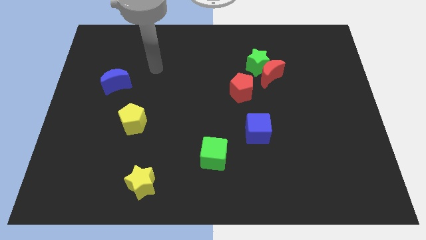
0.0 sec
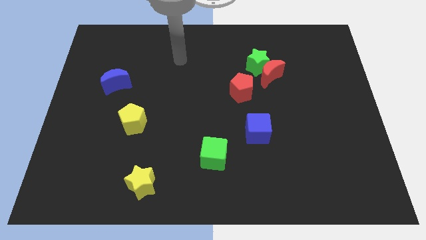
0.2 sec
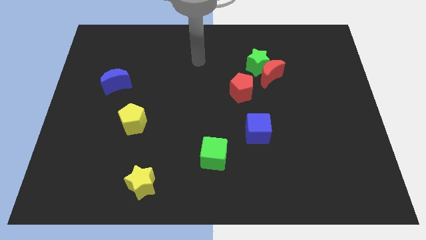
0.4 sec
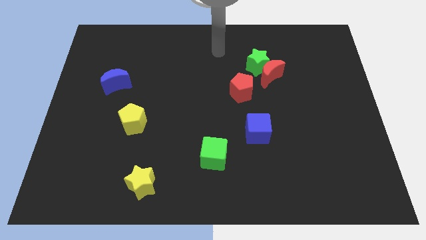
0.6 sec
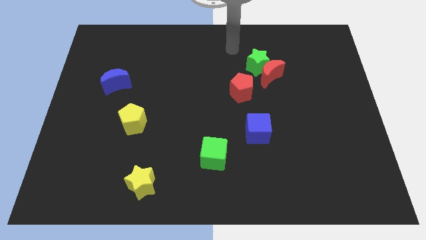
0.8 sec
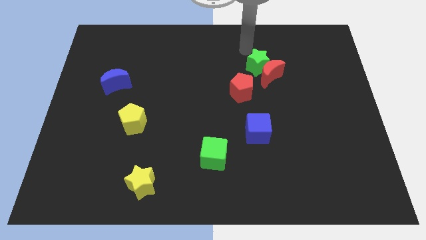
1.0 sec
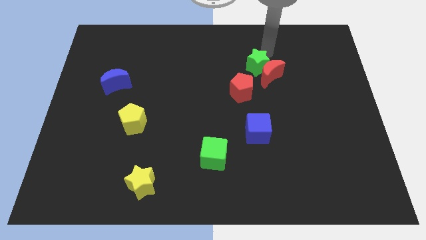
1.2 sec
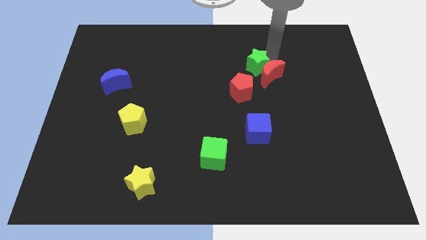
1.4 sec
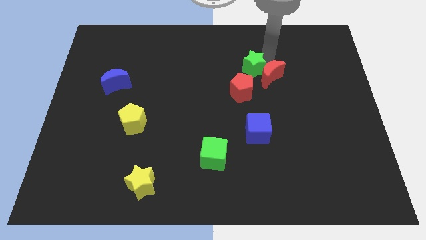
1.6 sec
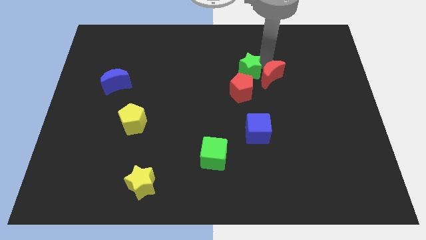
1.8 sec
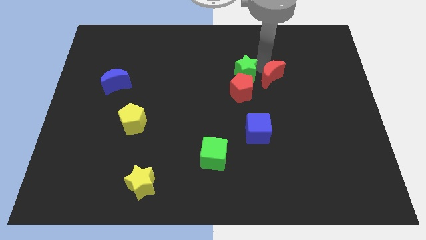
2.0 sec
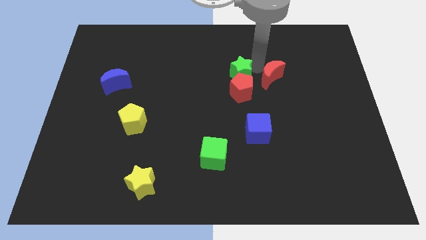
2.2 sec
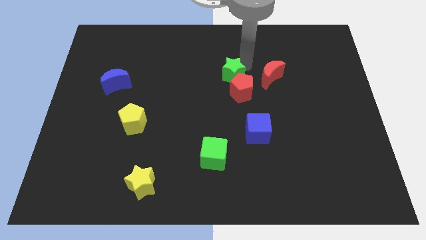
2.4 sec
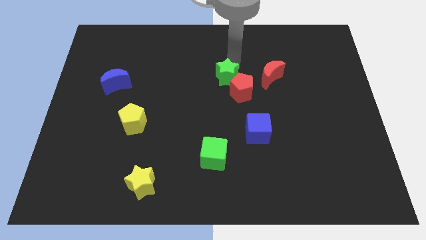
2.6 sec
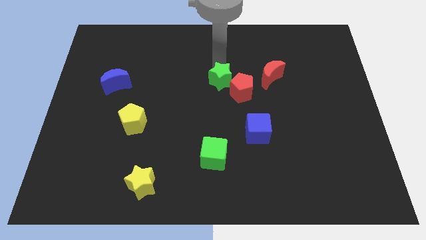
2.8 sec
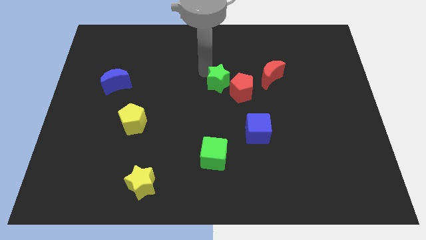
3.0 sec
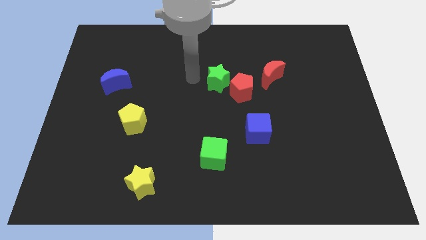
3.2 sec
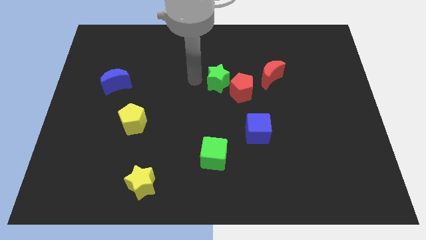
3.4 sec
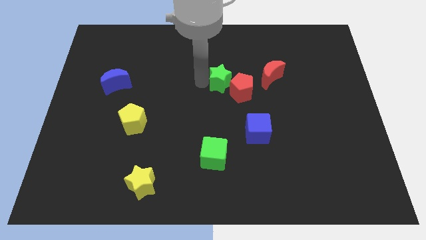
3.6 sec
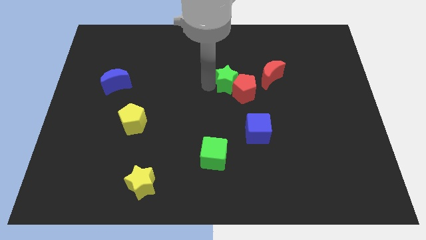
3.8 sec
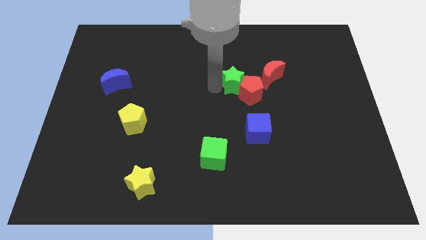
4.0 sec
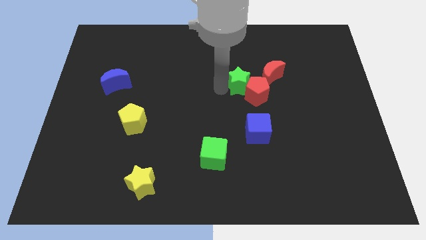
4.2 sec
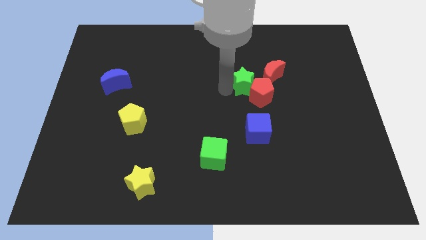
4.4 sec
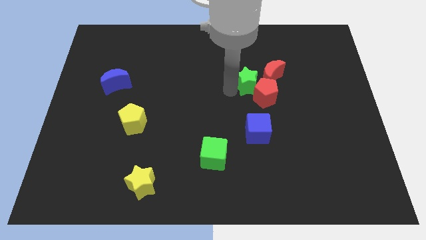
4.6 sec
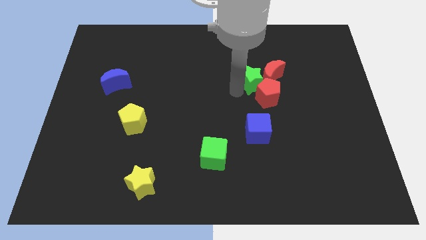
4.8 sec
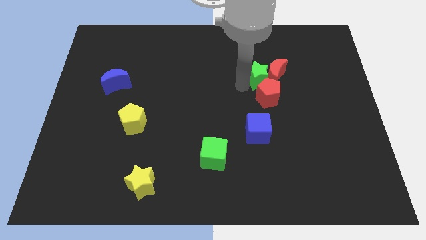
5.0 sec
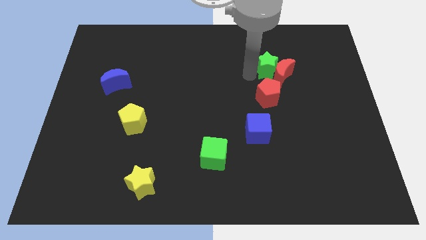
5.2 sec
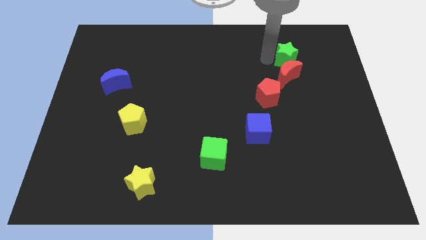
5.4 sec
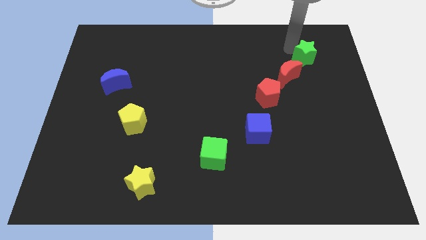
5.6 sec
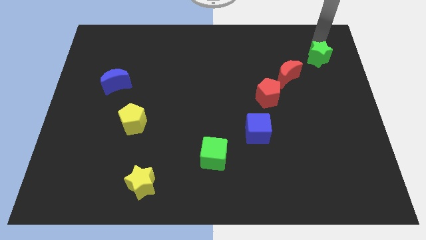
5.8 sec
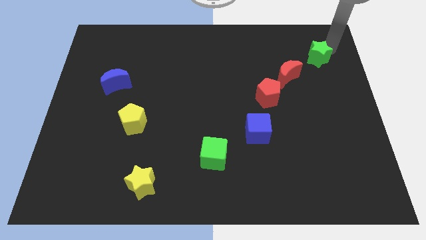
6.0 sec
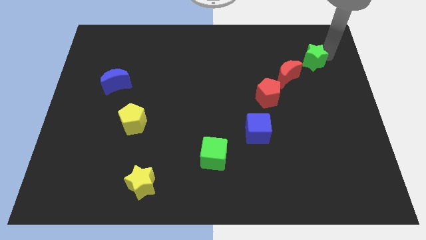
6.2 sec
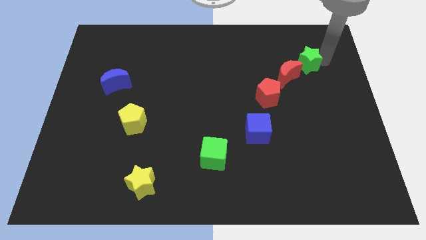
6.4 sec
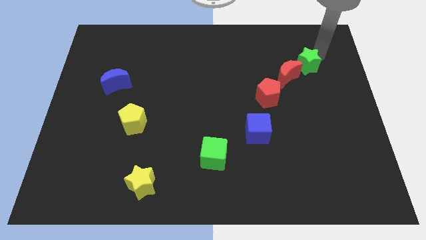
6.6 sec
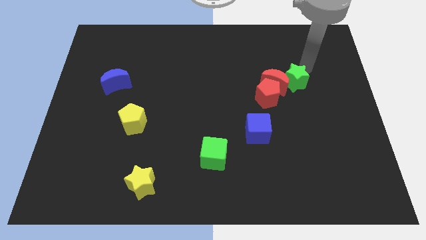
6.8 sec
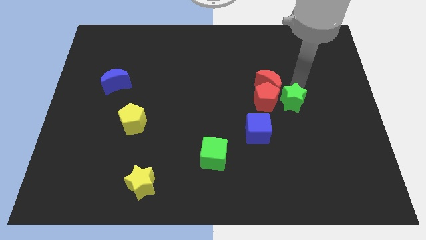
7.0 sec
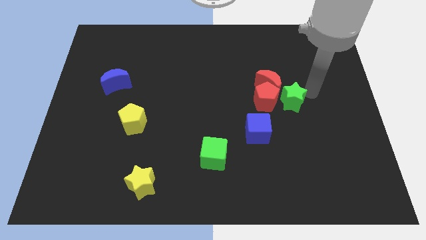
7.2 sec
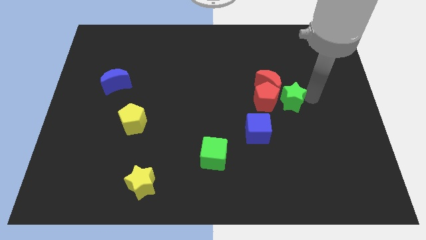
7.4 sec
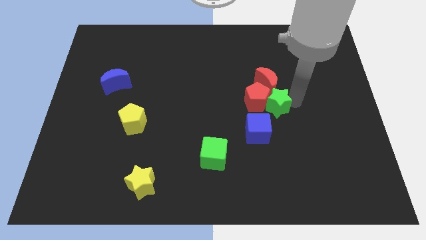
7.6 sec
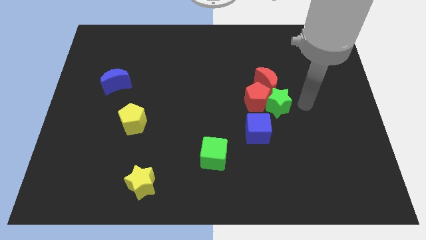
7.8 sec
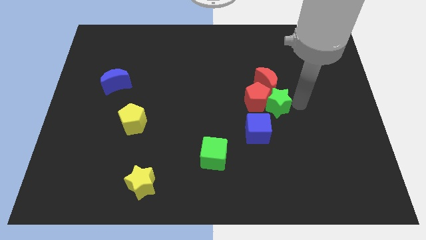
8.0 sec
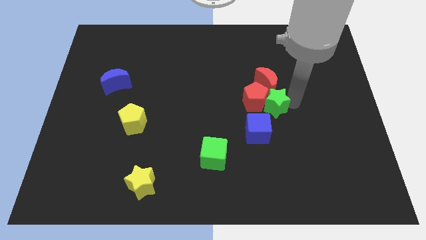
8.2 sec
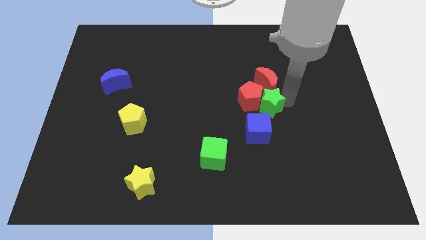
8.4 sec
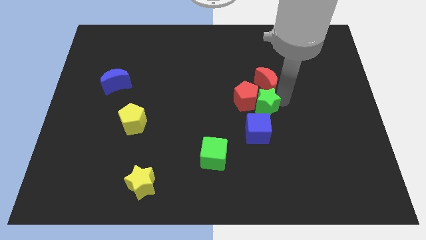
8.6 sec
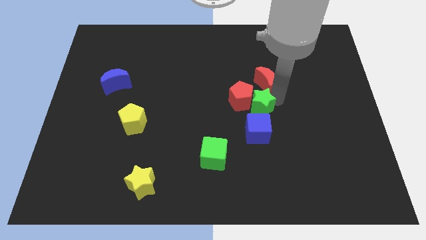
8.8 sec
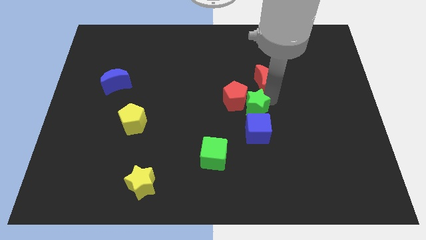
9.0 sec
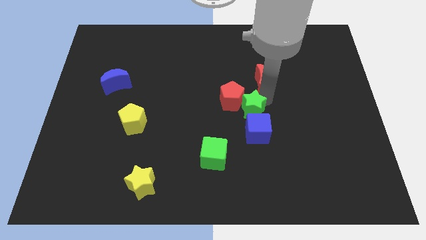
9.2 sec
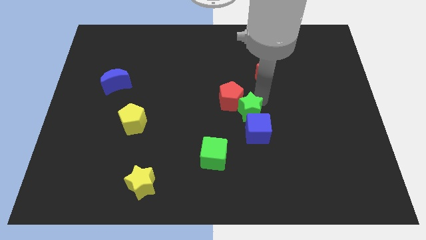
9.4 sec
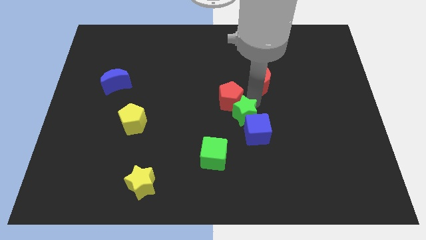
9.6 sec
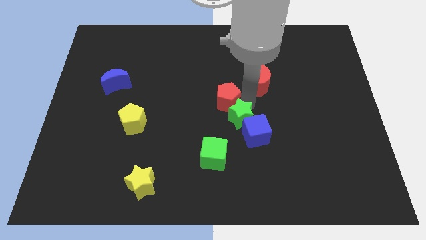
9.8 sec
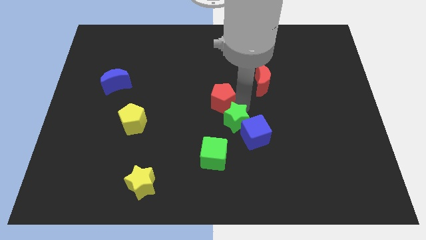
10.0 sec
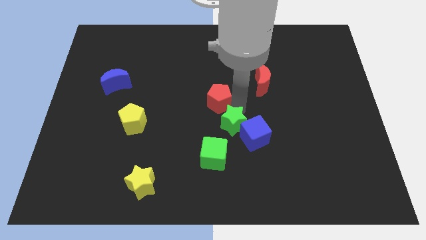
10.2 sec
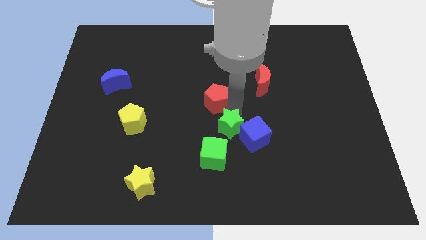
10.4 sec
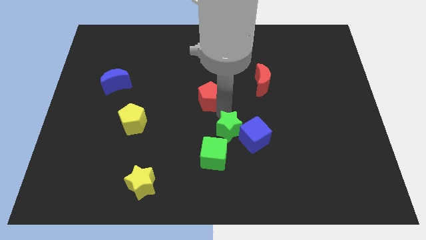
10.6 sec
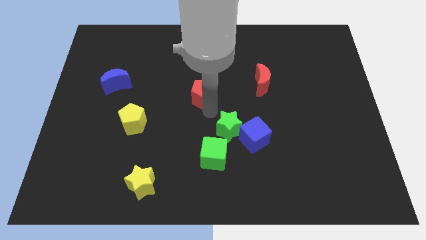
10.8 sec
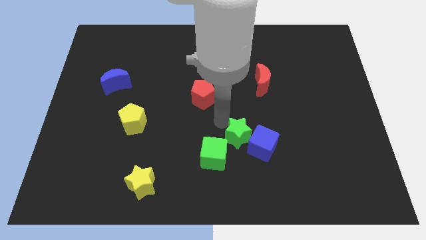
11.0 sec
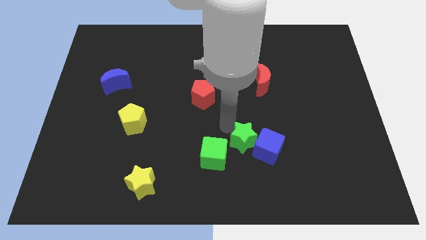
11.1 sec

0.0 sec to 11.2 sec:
put the green star just right of the green cube

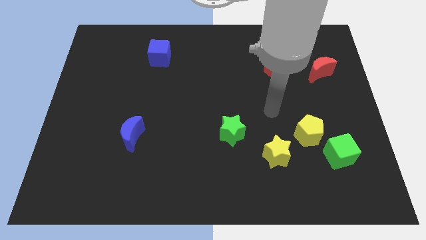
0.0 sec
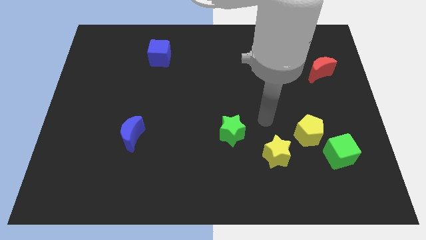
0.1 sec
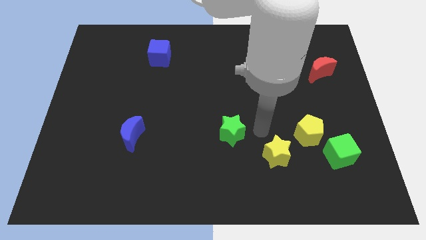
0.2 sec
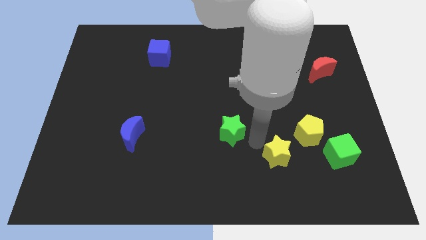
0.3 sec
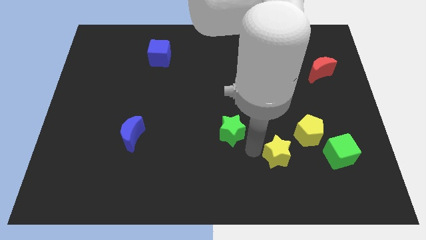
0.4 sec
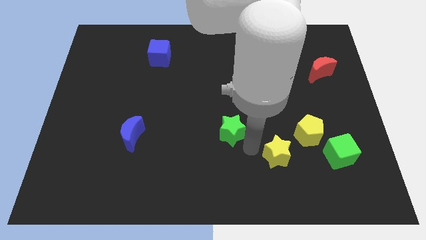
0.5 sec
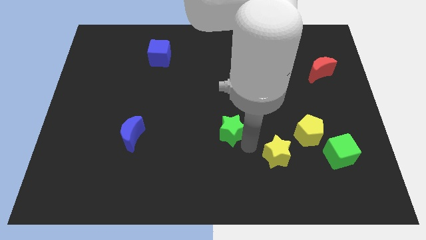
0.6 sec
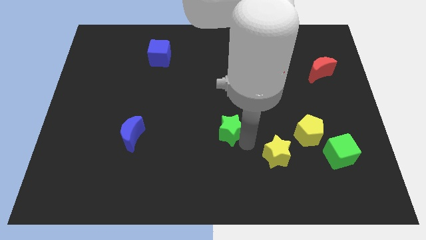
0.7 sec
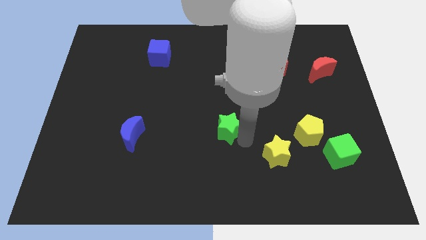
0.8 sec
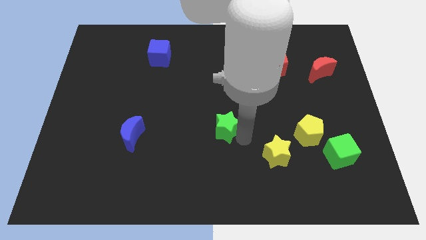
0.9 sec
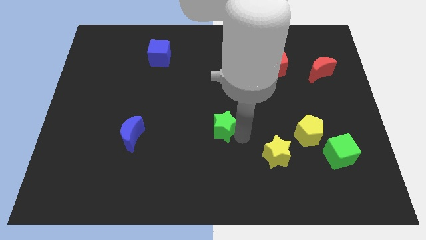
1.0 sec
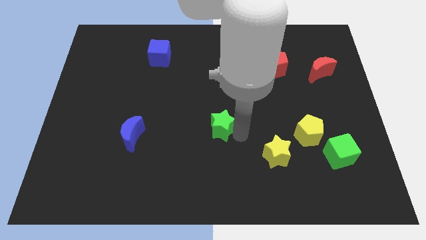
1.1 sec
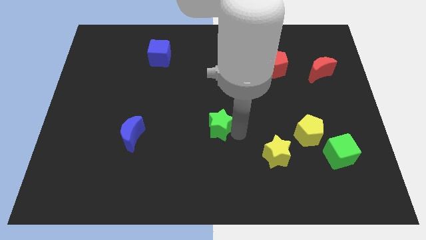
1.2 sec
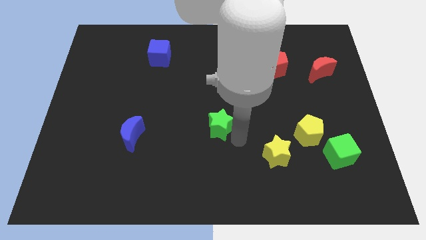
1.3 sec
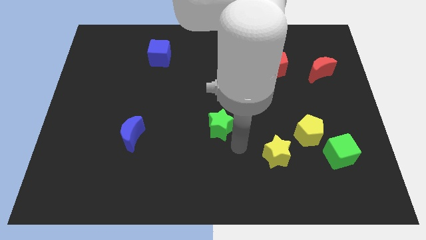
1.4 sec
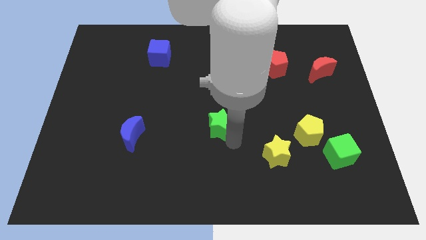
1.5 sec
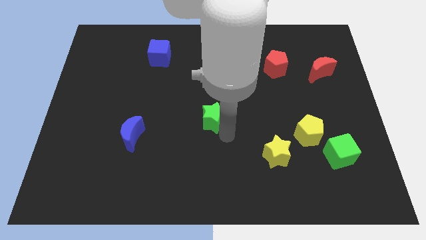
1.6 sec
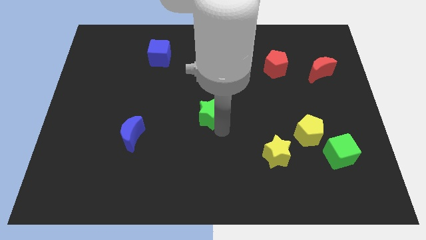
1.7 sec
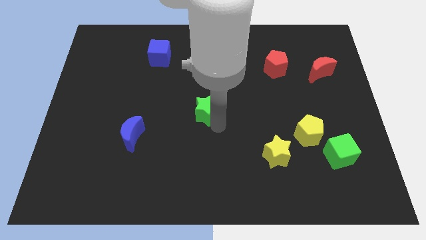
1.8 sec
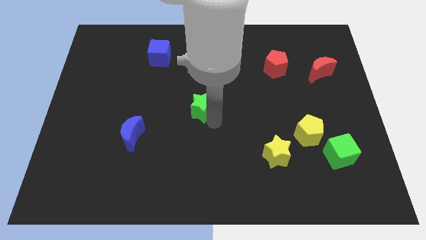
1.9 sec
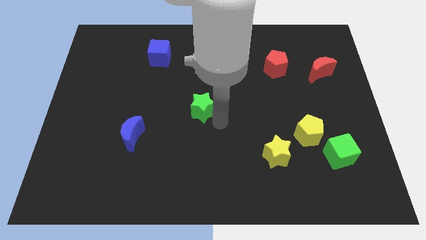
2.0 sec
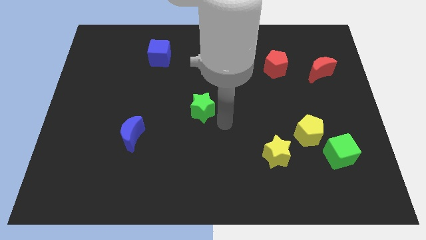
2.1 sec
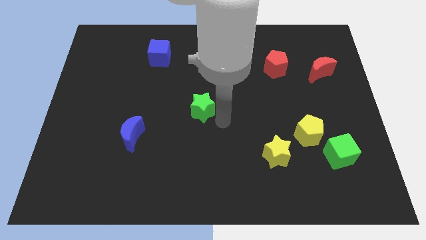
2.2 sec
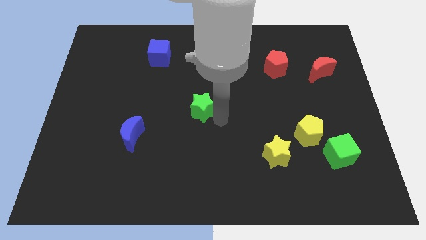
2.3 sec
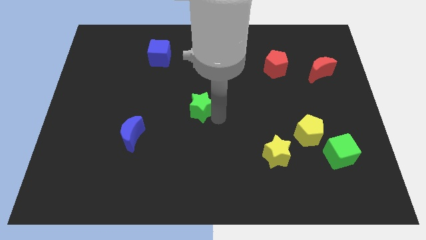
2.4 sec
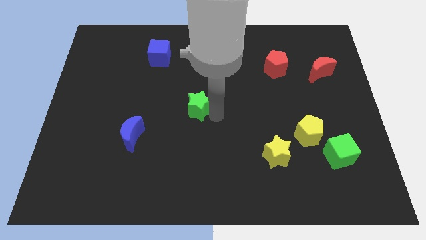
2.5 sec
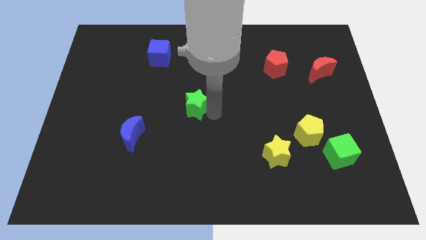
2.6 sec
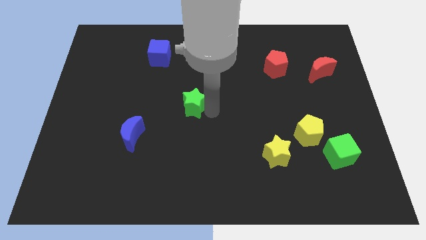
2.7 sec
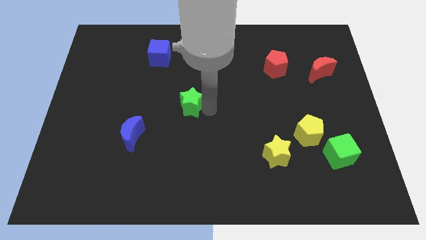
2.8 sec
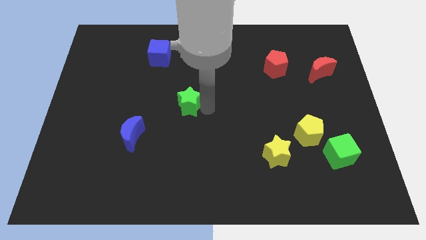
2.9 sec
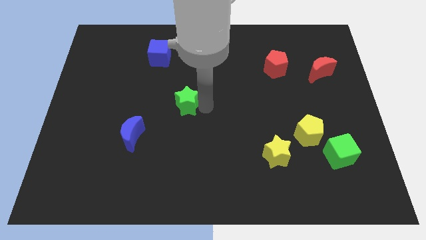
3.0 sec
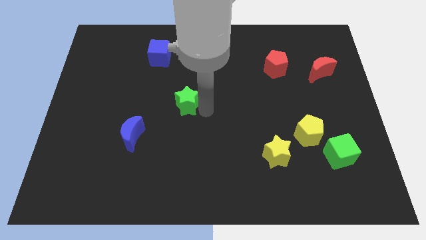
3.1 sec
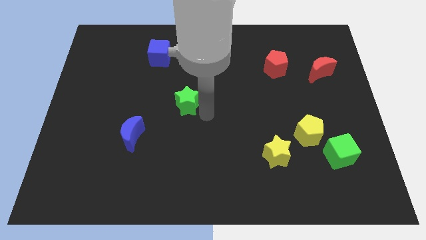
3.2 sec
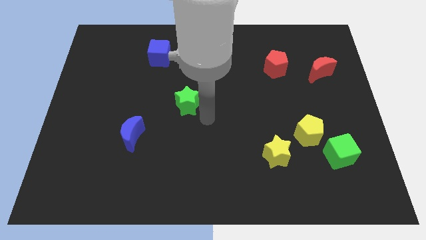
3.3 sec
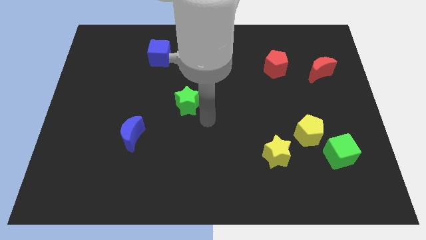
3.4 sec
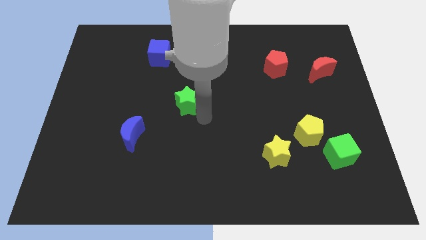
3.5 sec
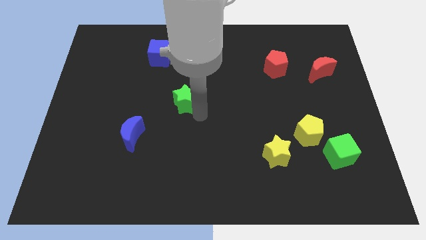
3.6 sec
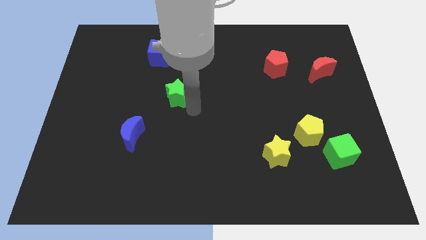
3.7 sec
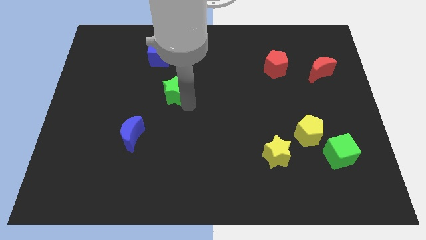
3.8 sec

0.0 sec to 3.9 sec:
move the green star to the bottom side of the blue cube
